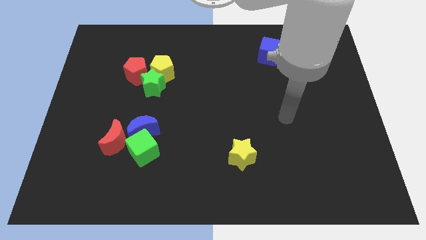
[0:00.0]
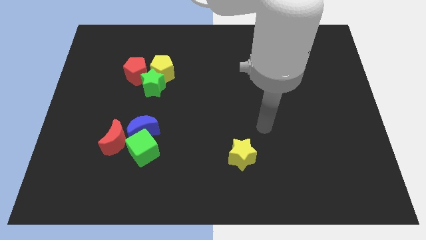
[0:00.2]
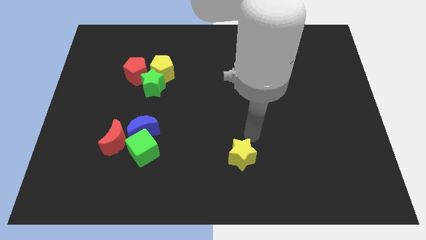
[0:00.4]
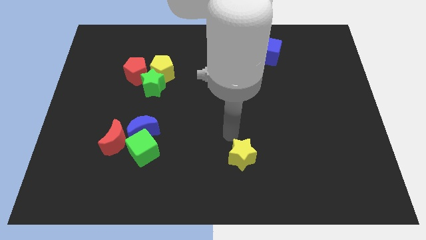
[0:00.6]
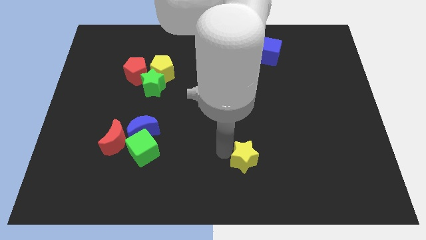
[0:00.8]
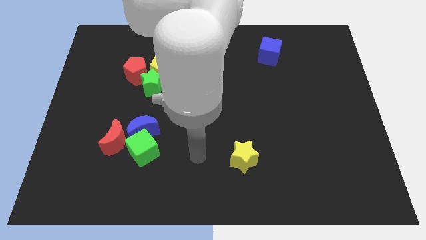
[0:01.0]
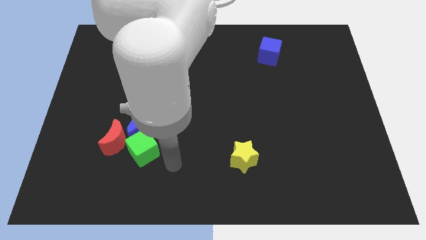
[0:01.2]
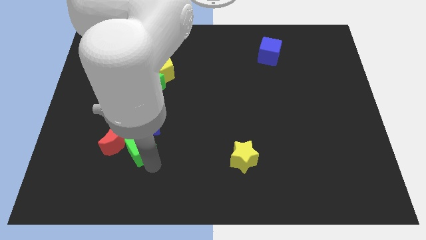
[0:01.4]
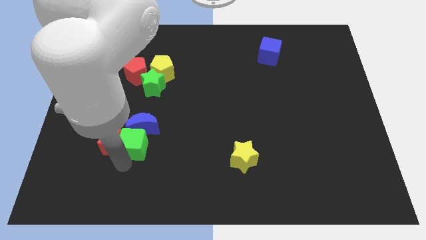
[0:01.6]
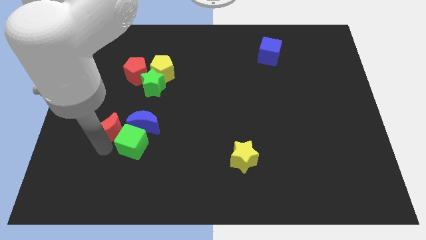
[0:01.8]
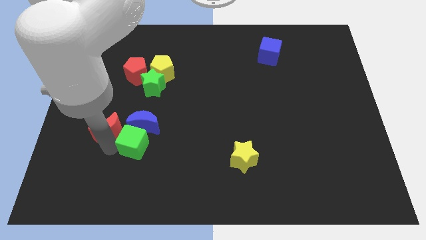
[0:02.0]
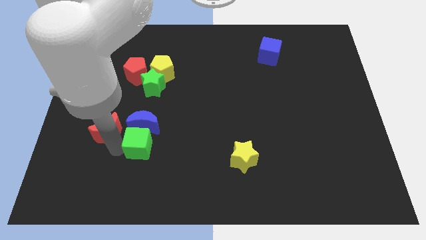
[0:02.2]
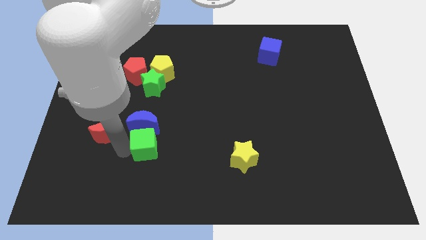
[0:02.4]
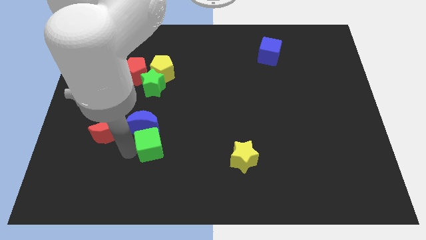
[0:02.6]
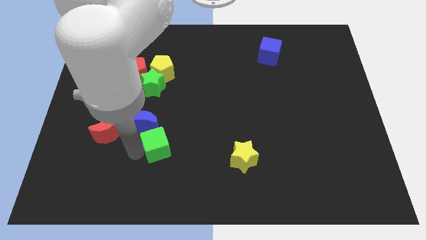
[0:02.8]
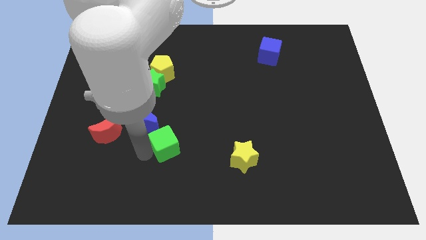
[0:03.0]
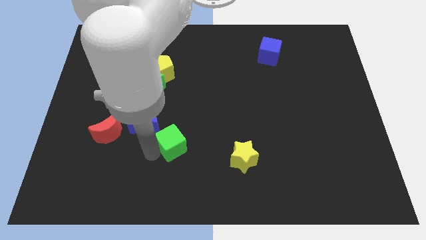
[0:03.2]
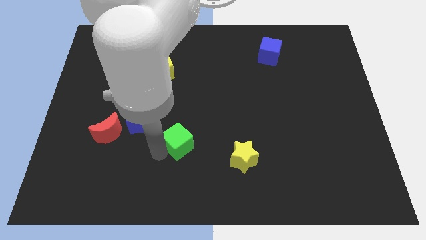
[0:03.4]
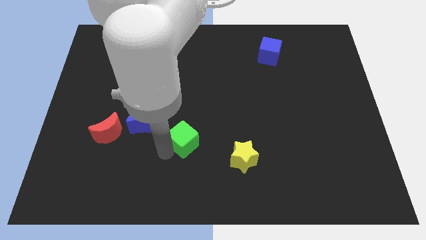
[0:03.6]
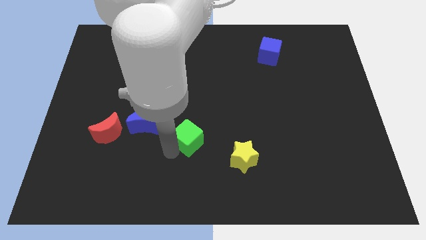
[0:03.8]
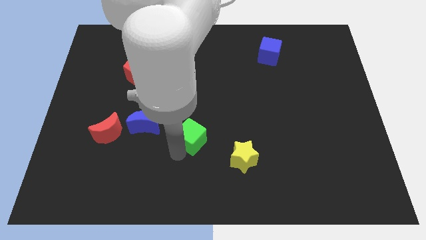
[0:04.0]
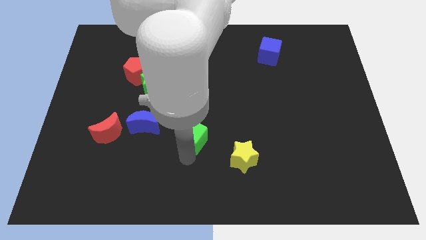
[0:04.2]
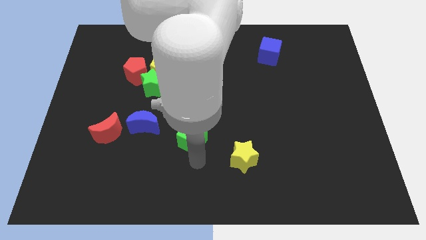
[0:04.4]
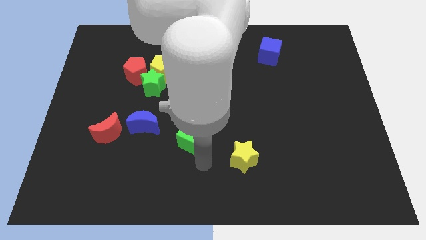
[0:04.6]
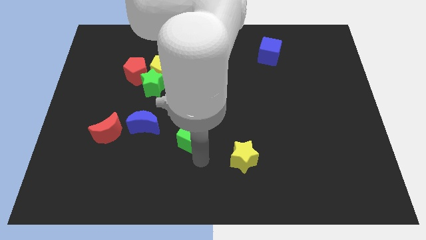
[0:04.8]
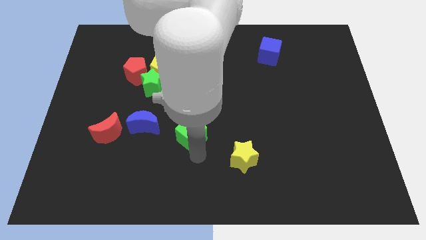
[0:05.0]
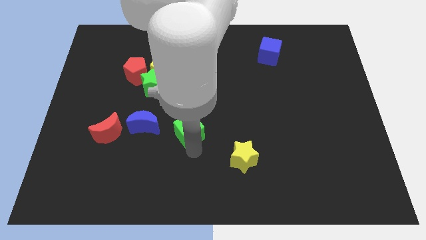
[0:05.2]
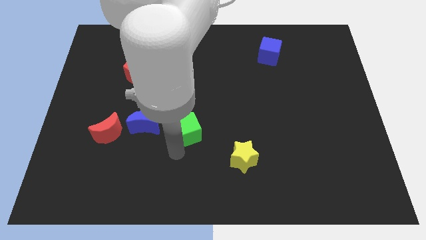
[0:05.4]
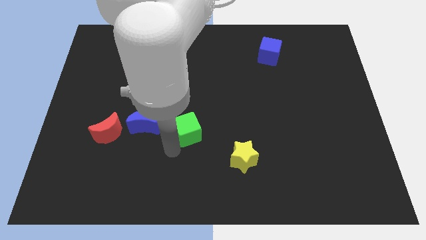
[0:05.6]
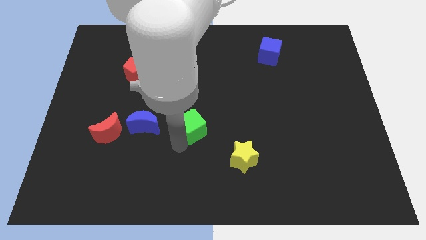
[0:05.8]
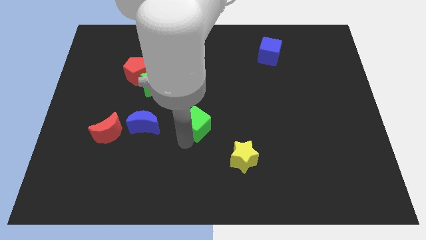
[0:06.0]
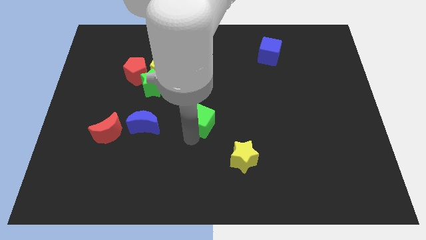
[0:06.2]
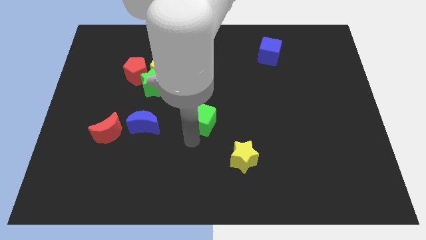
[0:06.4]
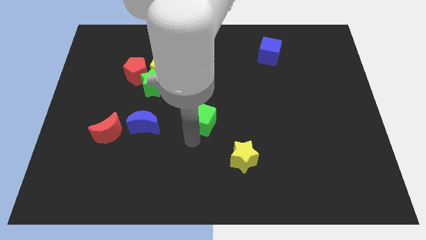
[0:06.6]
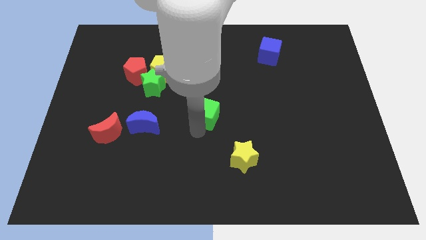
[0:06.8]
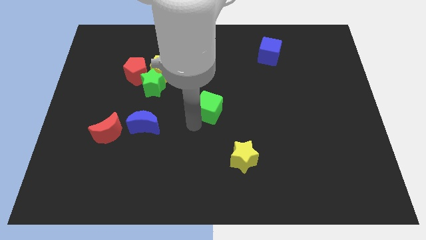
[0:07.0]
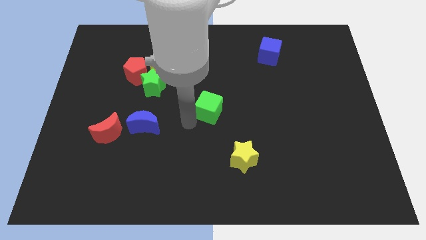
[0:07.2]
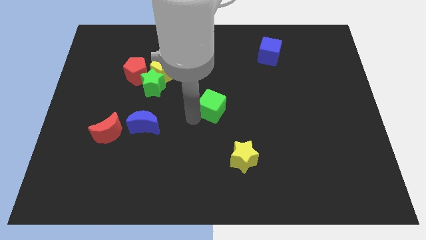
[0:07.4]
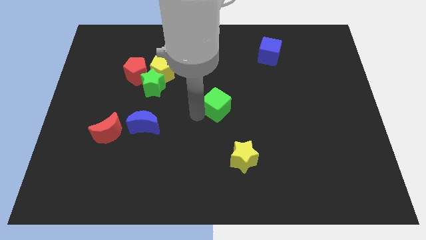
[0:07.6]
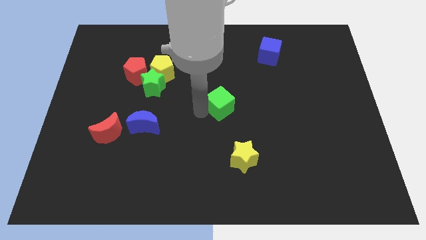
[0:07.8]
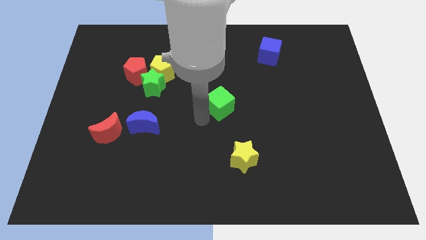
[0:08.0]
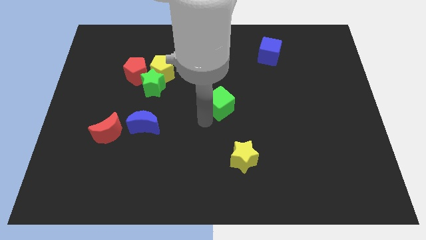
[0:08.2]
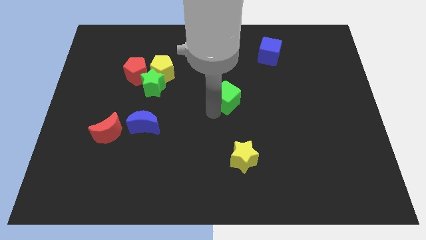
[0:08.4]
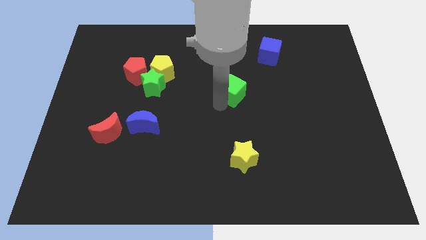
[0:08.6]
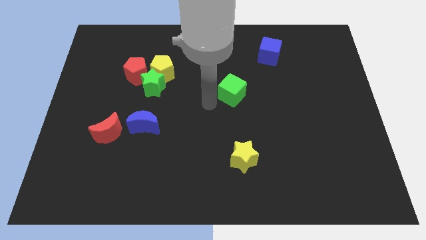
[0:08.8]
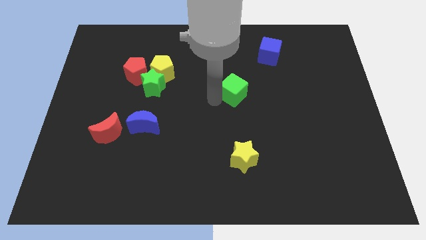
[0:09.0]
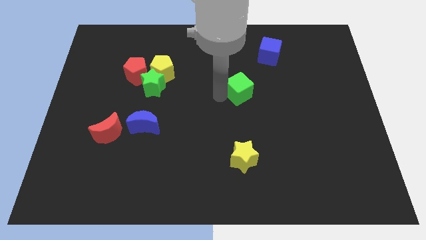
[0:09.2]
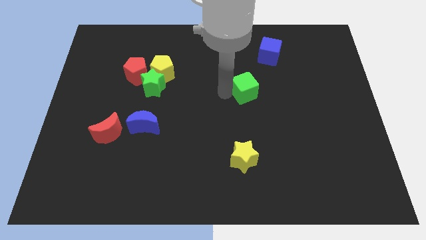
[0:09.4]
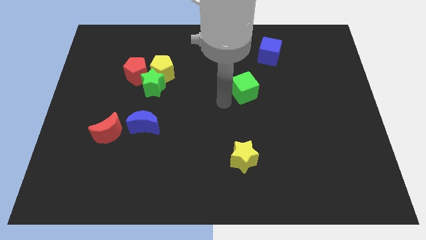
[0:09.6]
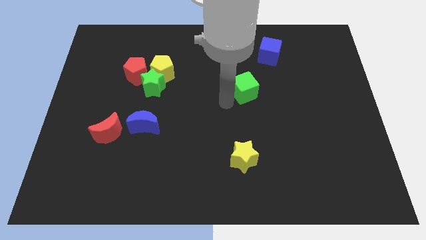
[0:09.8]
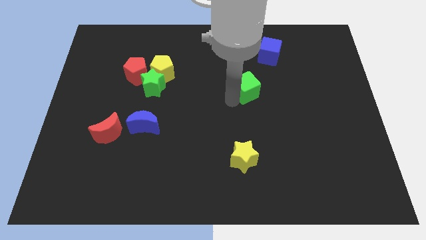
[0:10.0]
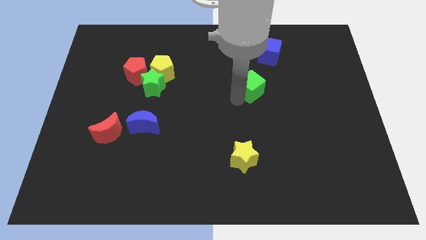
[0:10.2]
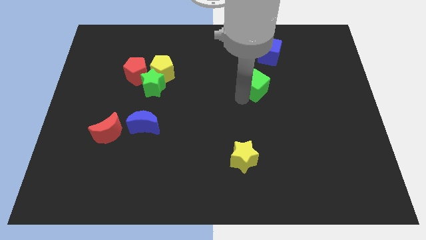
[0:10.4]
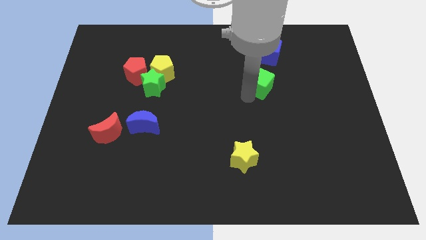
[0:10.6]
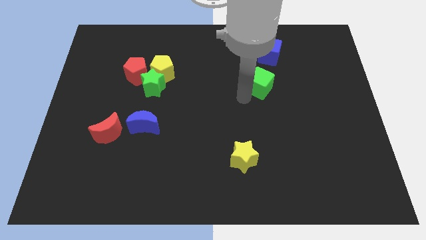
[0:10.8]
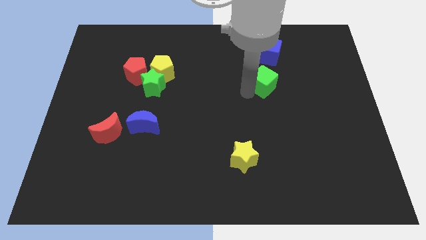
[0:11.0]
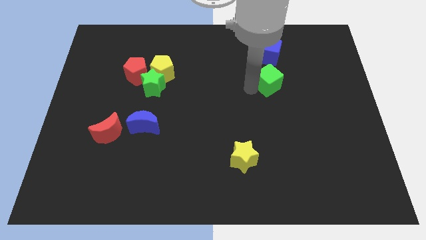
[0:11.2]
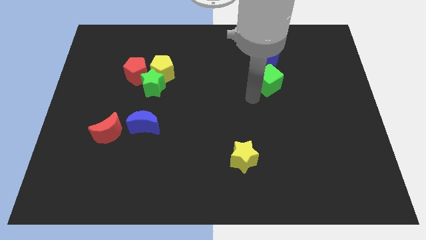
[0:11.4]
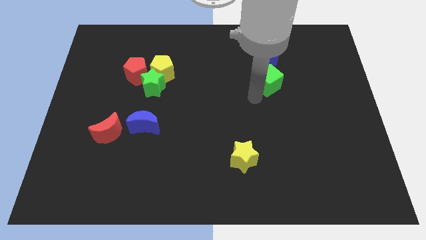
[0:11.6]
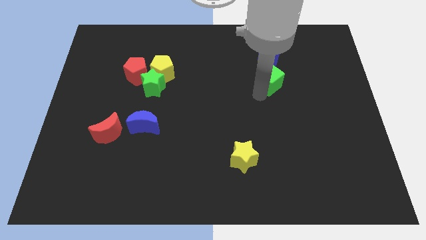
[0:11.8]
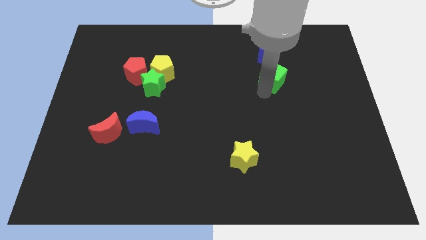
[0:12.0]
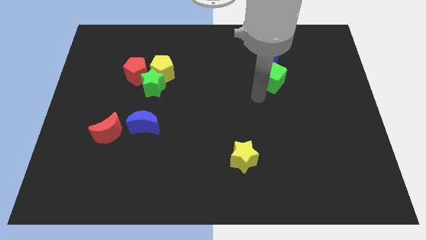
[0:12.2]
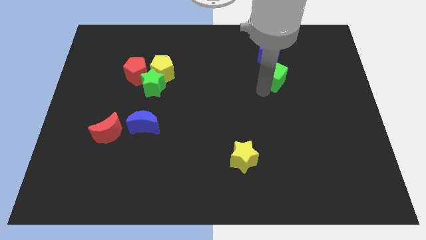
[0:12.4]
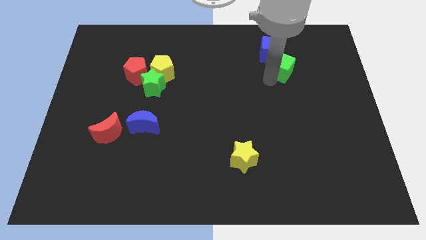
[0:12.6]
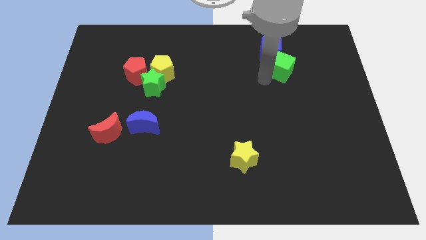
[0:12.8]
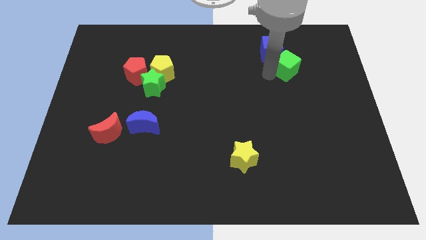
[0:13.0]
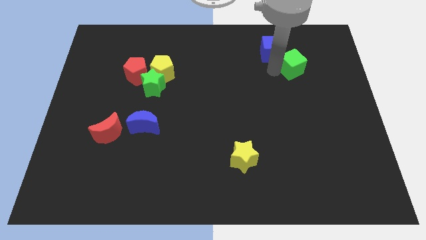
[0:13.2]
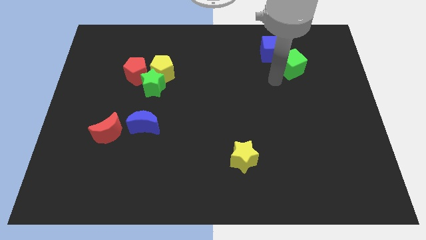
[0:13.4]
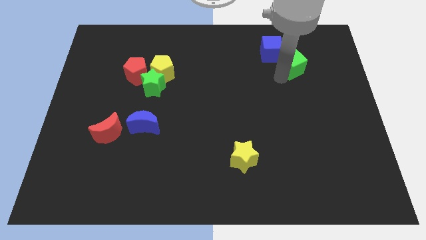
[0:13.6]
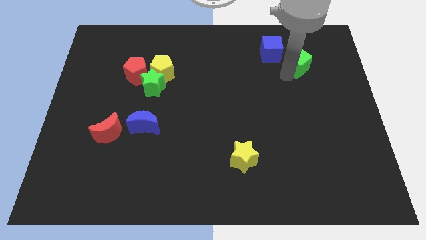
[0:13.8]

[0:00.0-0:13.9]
push the green cube to the right side of the blue cube

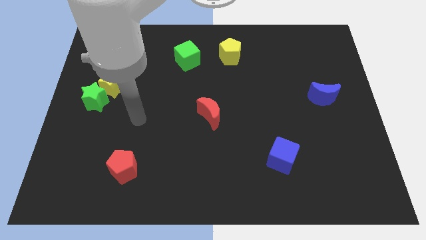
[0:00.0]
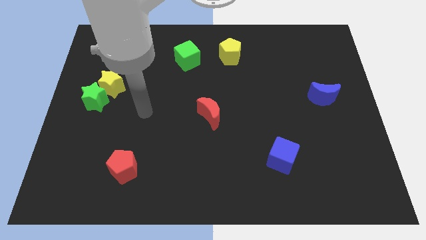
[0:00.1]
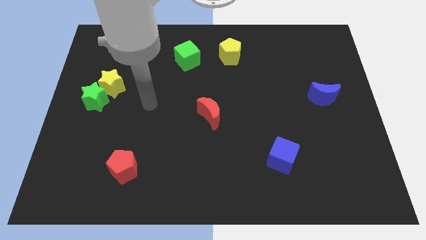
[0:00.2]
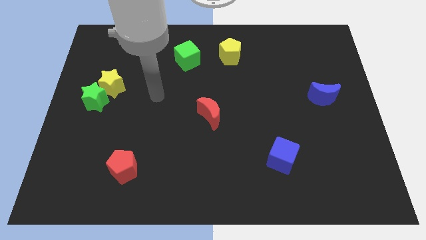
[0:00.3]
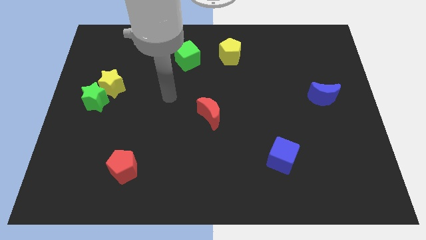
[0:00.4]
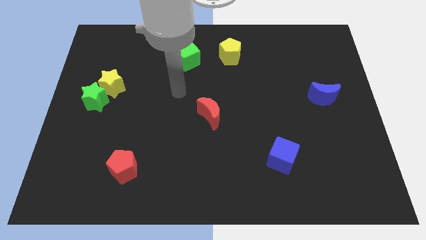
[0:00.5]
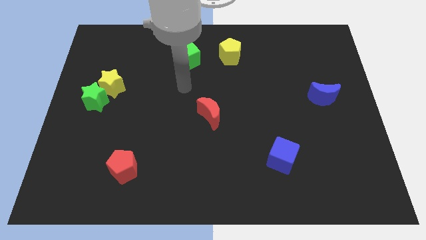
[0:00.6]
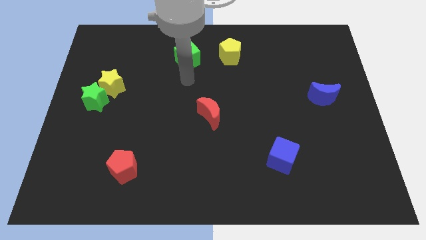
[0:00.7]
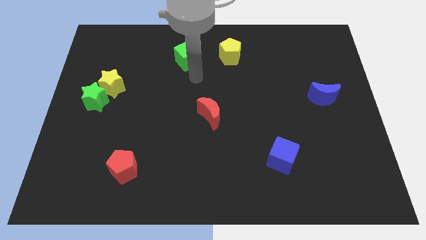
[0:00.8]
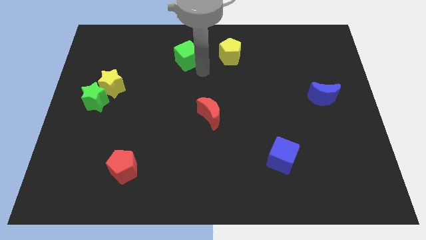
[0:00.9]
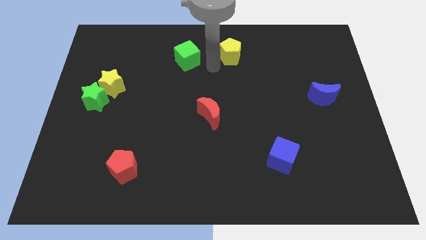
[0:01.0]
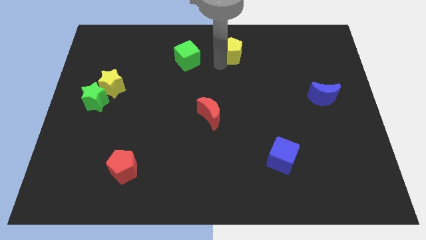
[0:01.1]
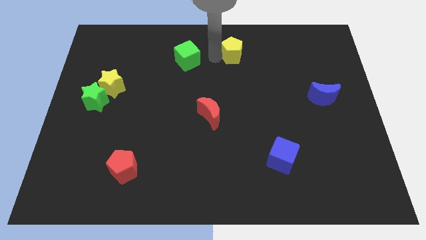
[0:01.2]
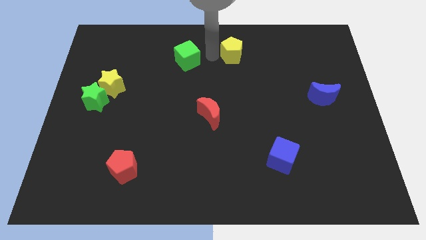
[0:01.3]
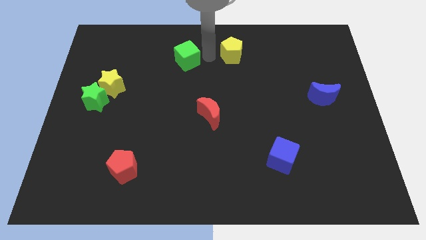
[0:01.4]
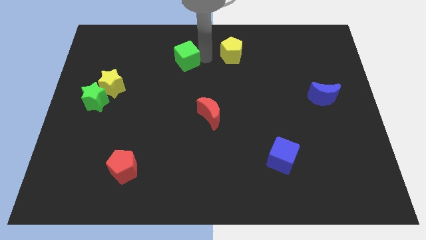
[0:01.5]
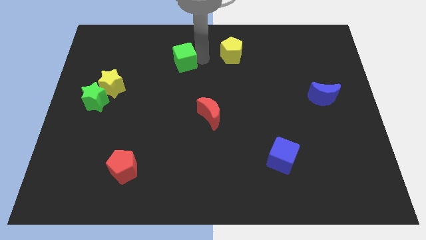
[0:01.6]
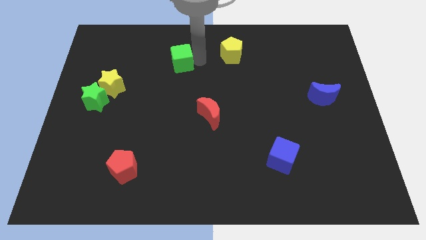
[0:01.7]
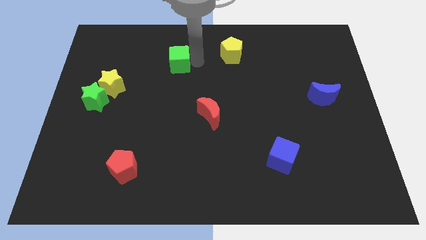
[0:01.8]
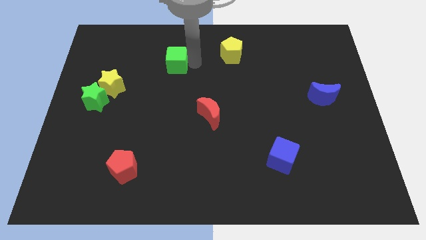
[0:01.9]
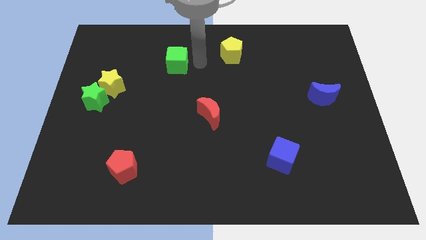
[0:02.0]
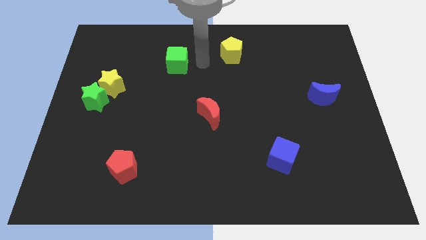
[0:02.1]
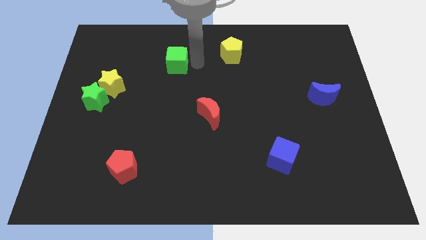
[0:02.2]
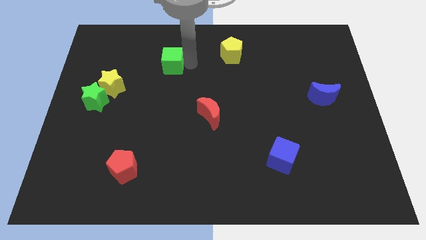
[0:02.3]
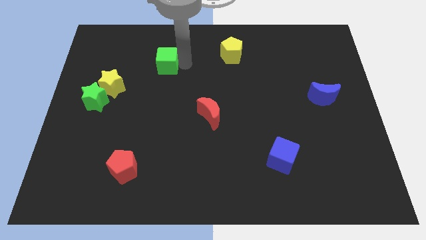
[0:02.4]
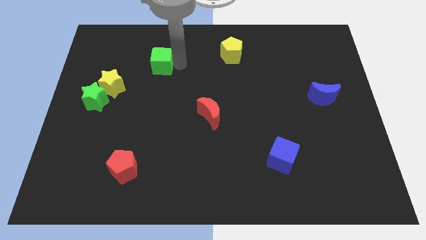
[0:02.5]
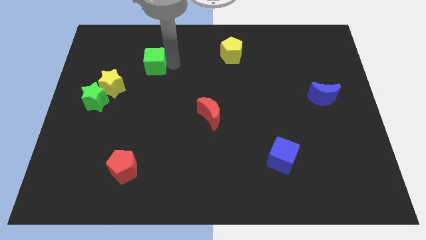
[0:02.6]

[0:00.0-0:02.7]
move the green cube diagonally up and to the right of the yellow star
